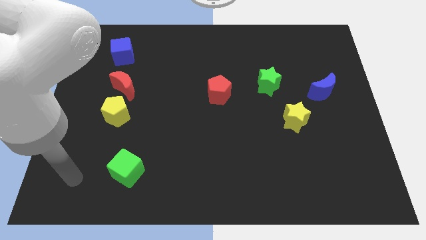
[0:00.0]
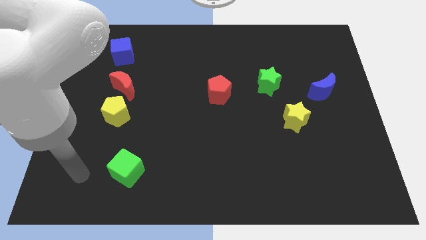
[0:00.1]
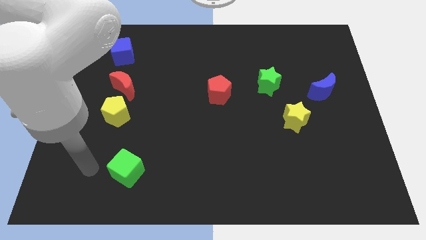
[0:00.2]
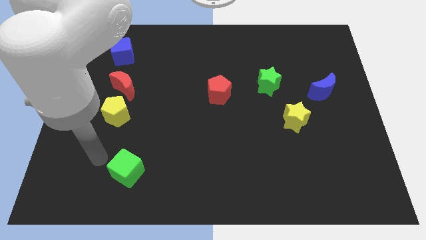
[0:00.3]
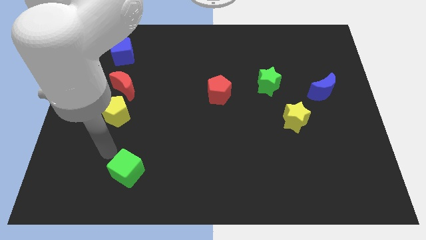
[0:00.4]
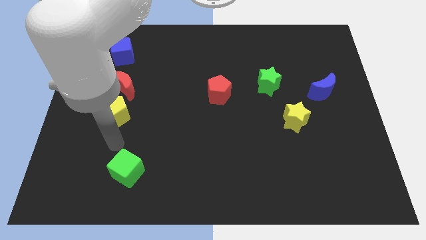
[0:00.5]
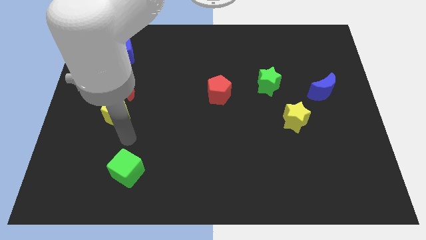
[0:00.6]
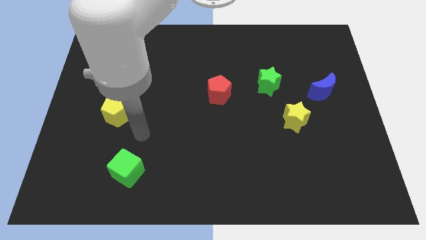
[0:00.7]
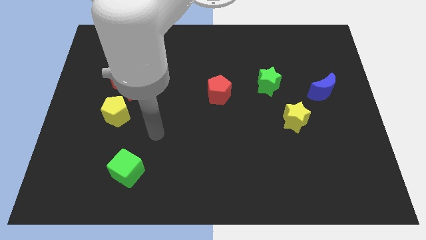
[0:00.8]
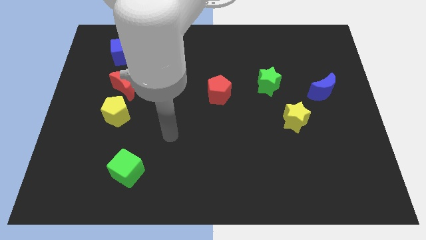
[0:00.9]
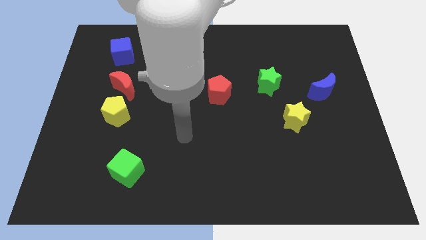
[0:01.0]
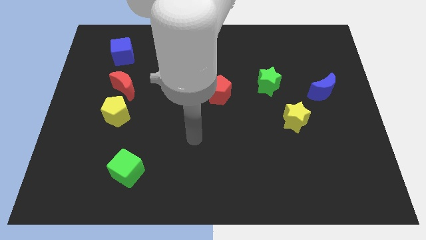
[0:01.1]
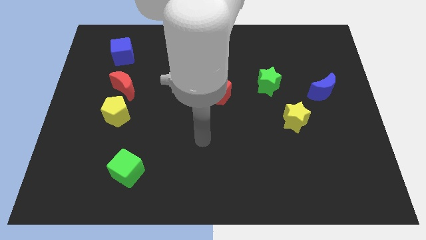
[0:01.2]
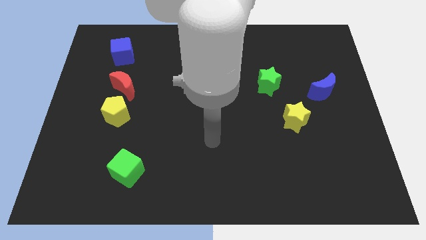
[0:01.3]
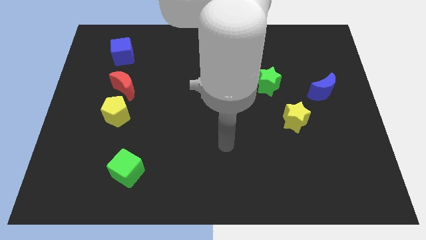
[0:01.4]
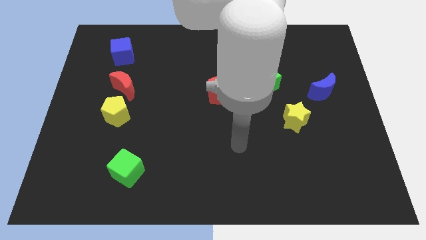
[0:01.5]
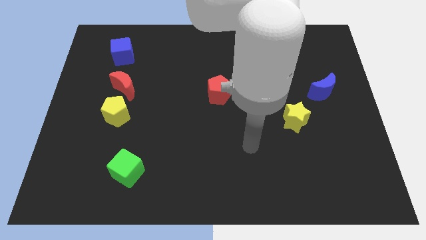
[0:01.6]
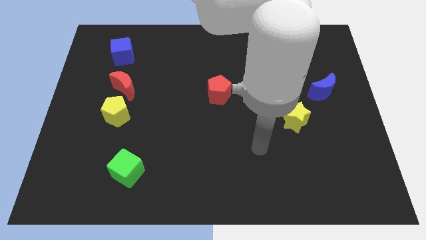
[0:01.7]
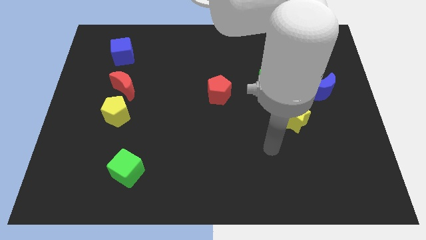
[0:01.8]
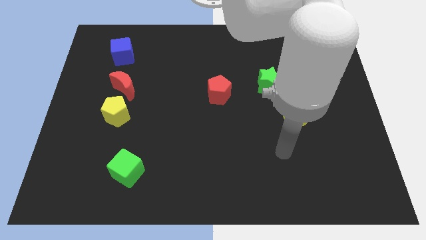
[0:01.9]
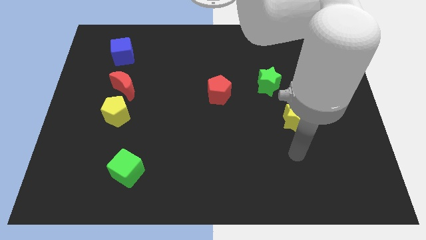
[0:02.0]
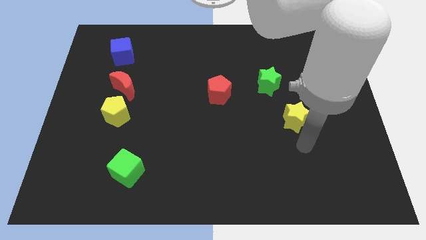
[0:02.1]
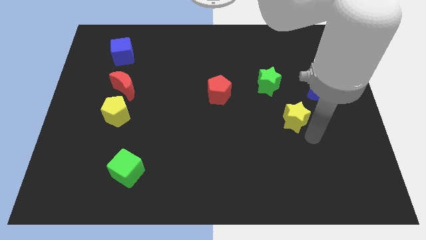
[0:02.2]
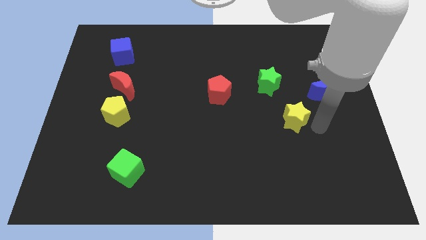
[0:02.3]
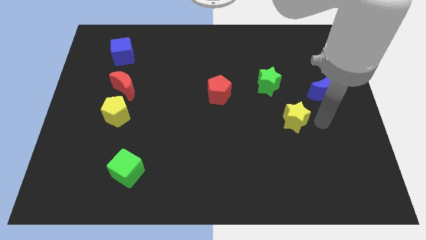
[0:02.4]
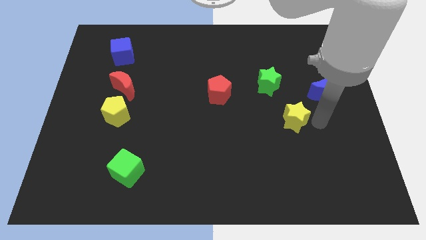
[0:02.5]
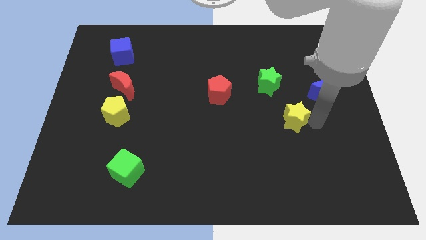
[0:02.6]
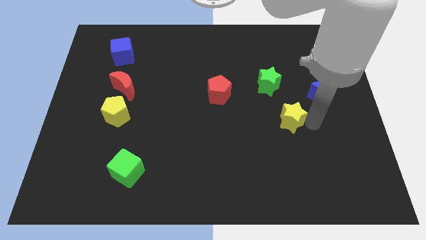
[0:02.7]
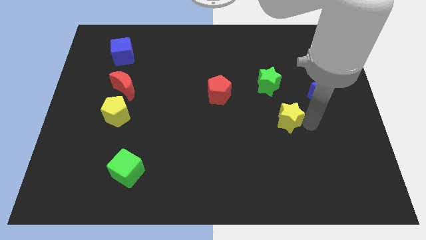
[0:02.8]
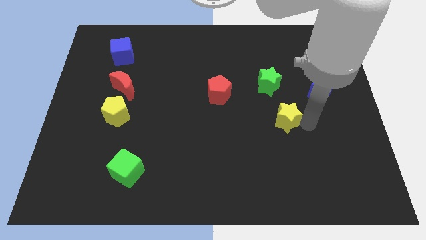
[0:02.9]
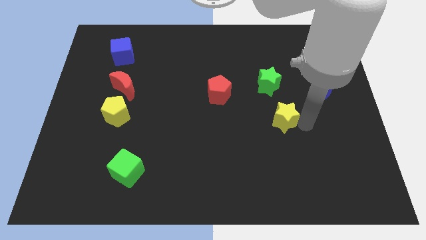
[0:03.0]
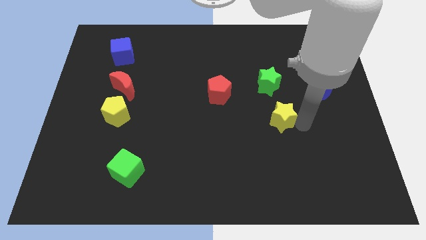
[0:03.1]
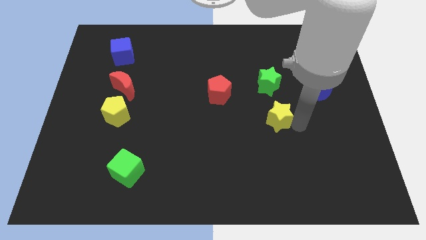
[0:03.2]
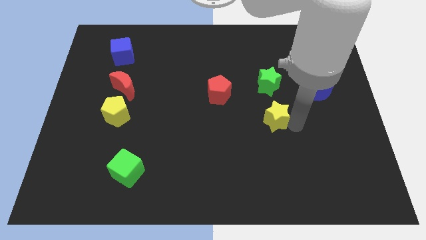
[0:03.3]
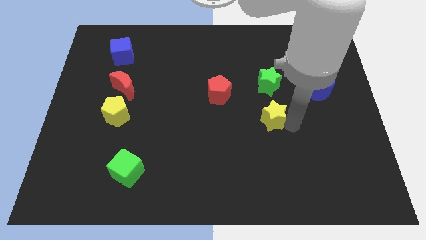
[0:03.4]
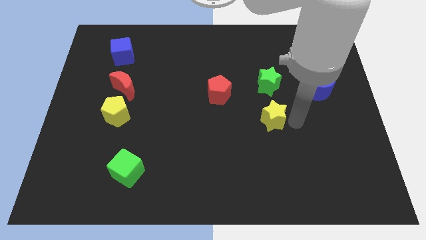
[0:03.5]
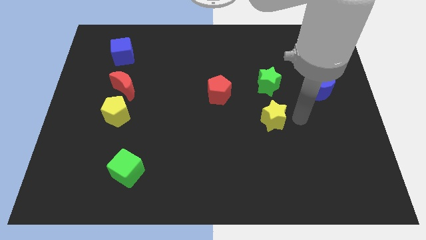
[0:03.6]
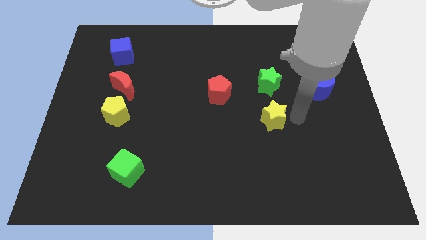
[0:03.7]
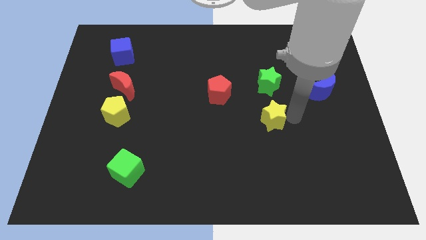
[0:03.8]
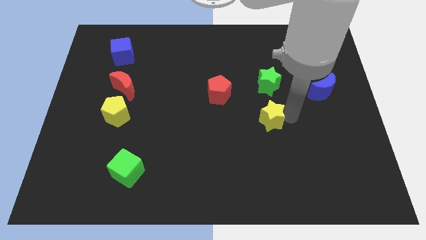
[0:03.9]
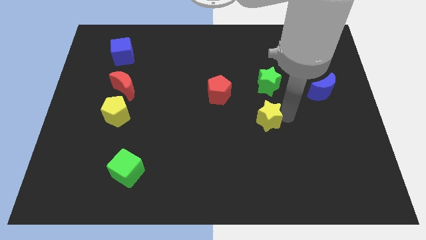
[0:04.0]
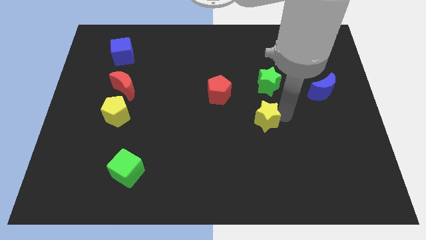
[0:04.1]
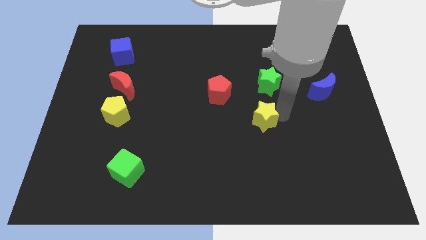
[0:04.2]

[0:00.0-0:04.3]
push the yellow star left a bit

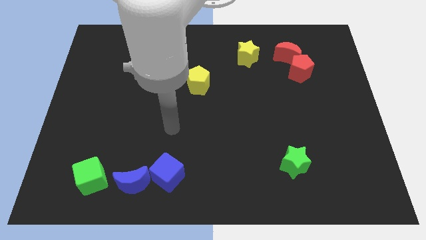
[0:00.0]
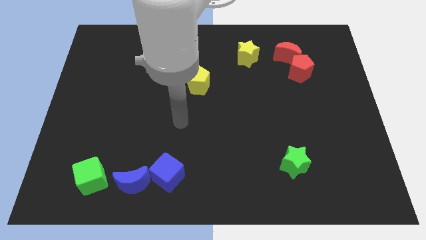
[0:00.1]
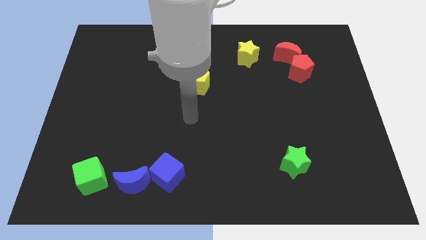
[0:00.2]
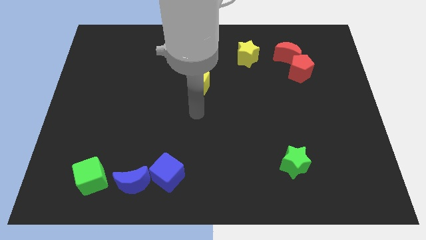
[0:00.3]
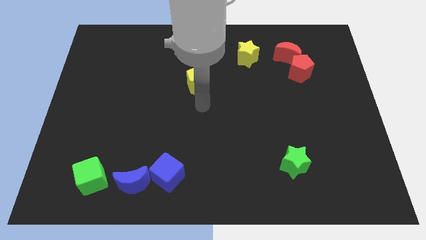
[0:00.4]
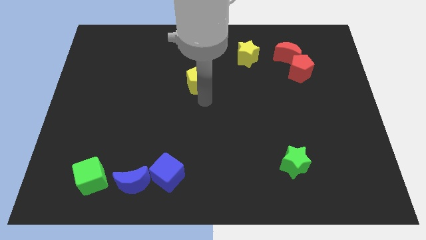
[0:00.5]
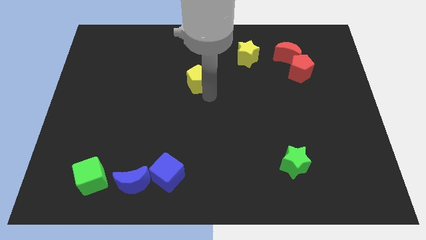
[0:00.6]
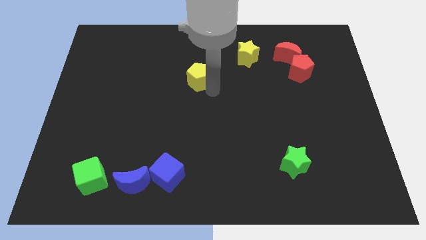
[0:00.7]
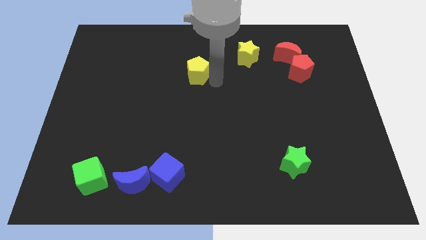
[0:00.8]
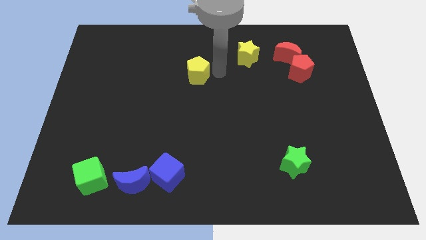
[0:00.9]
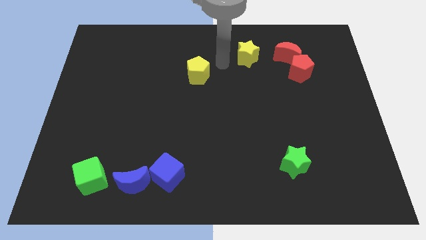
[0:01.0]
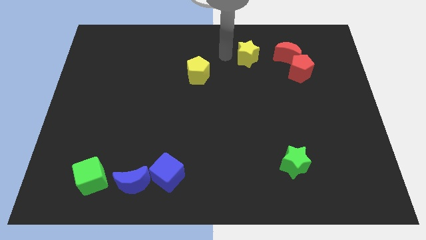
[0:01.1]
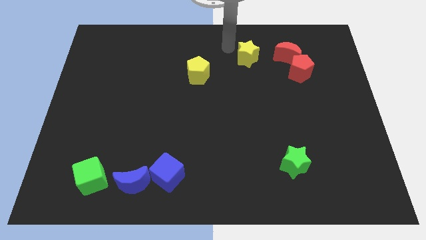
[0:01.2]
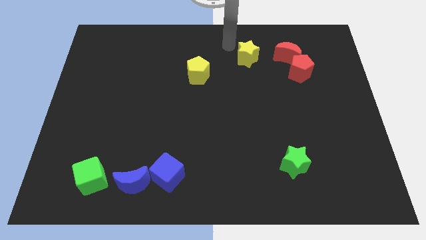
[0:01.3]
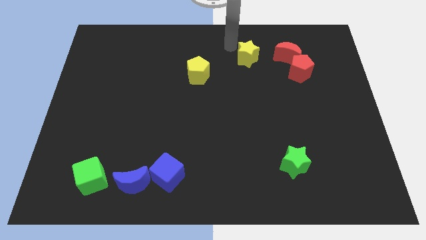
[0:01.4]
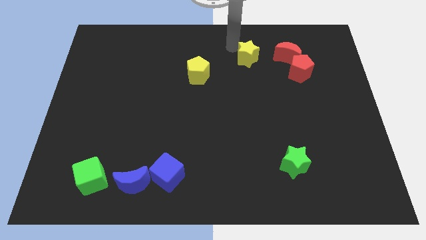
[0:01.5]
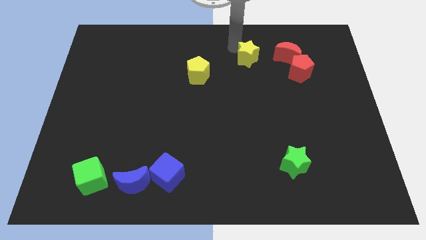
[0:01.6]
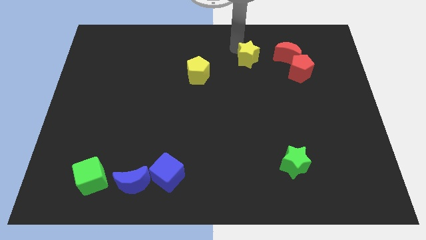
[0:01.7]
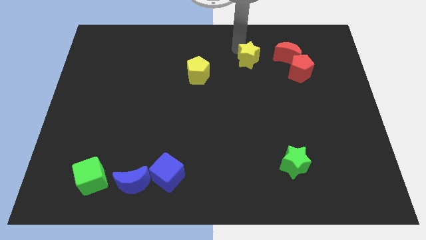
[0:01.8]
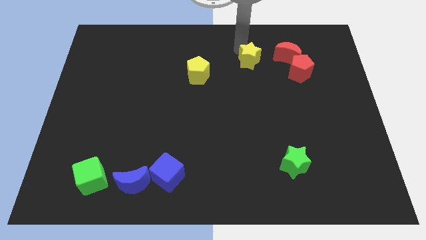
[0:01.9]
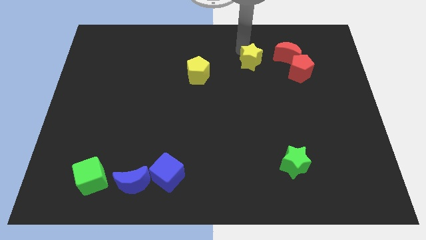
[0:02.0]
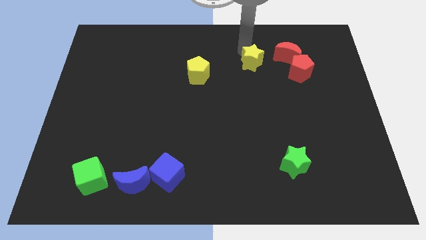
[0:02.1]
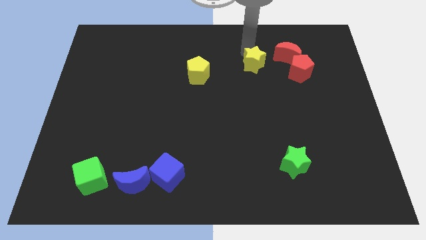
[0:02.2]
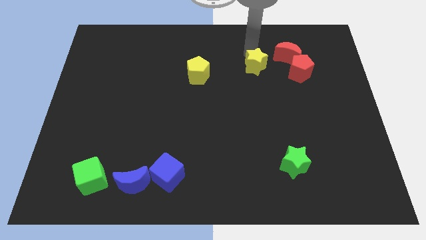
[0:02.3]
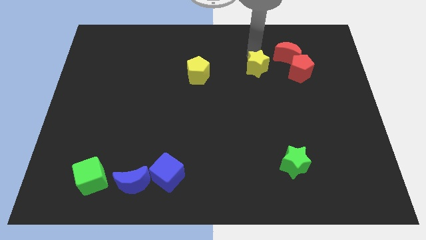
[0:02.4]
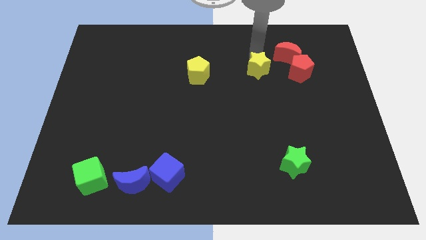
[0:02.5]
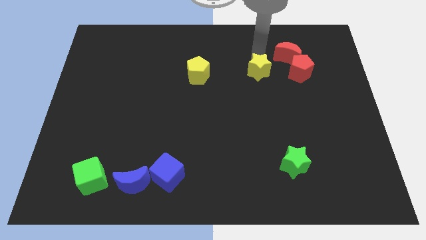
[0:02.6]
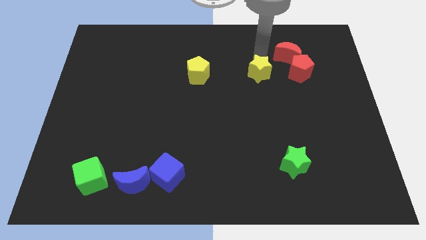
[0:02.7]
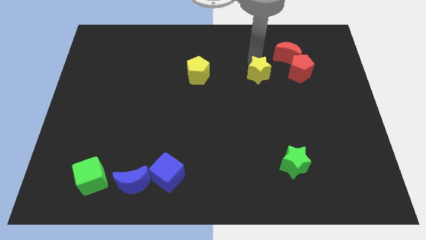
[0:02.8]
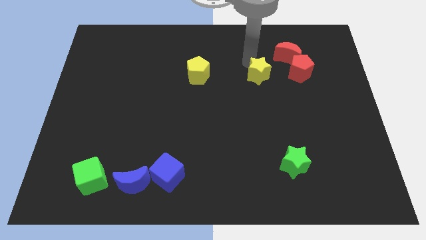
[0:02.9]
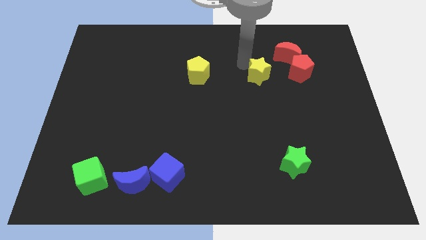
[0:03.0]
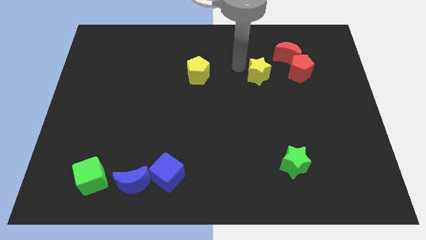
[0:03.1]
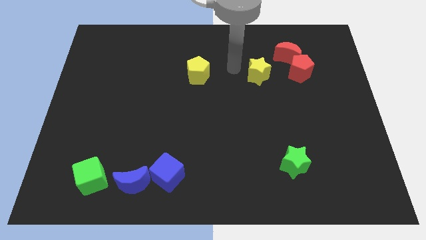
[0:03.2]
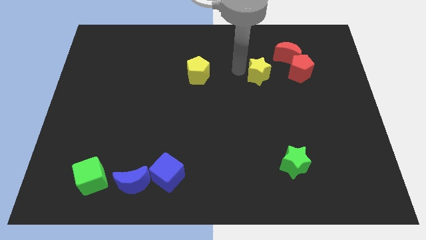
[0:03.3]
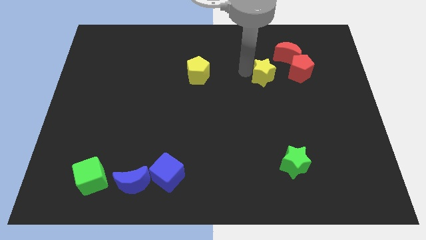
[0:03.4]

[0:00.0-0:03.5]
push the yellow star a little bit down and right diagonally

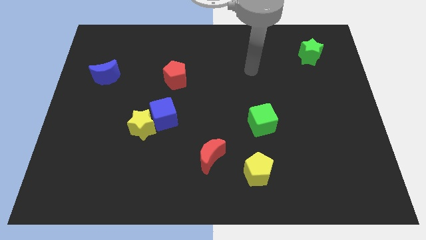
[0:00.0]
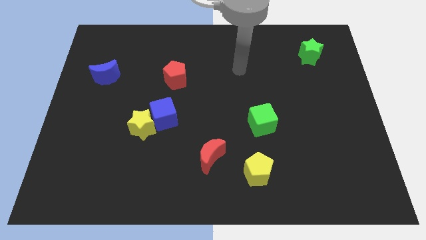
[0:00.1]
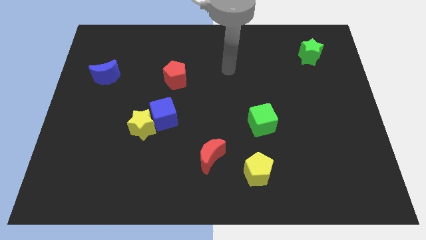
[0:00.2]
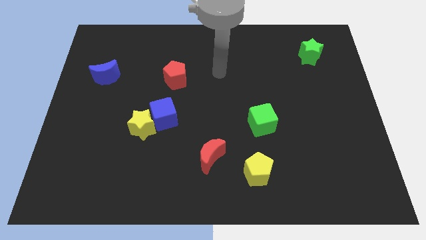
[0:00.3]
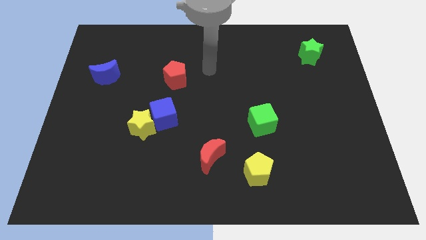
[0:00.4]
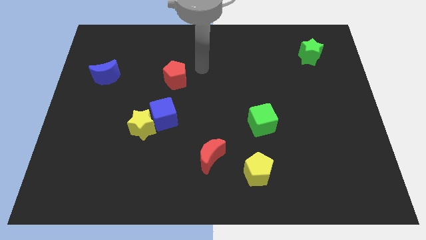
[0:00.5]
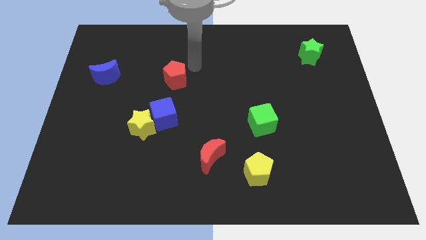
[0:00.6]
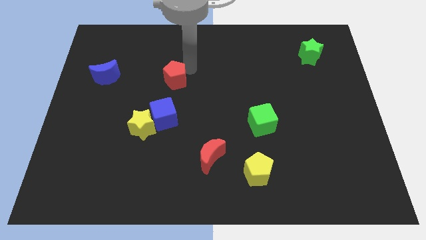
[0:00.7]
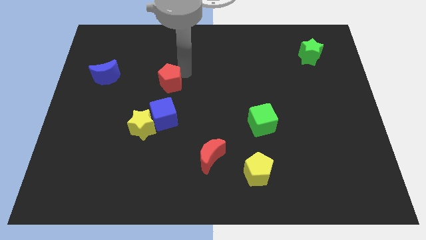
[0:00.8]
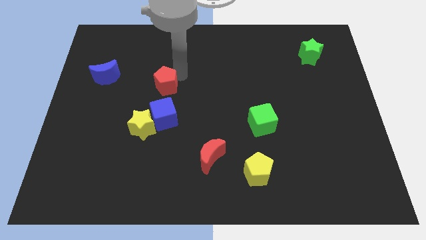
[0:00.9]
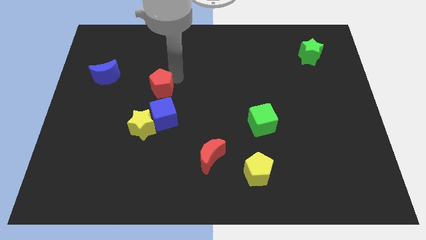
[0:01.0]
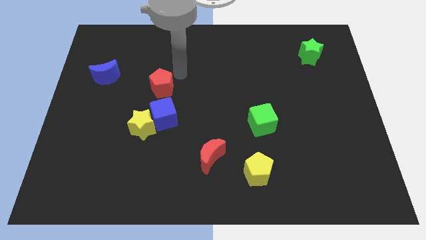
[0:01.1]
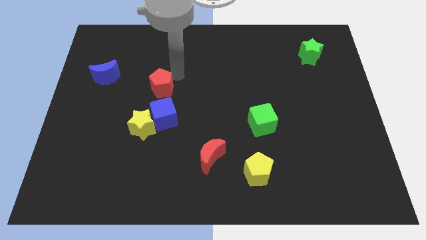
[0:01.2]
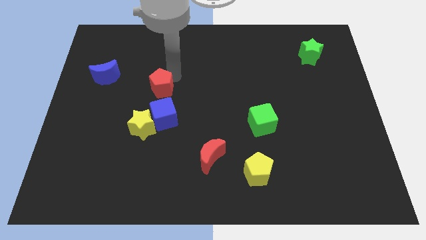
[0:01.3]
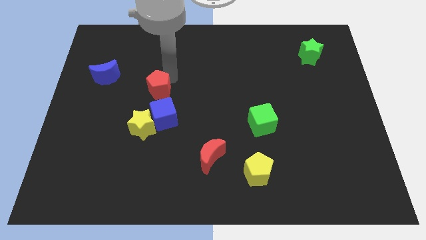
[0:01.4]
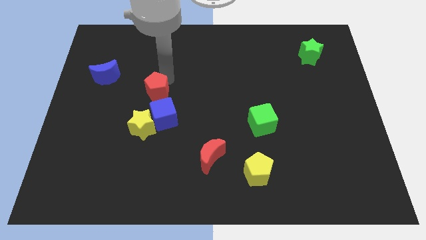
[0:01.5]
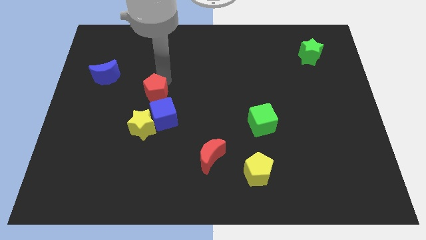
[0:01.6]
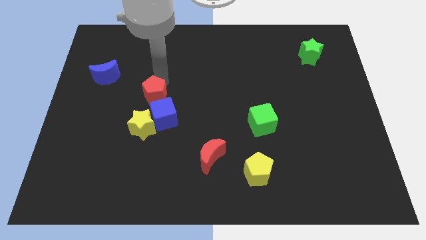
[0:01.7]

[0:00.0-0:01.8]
push the red pentagon a little diagonally down and to the left
